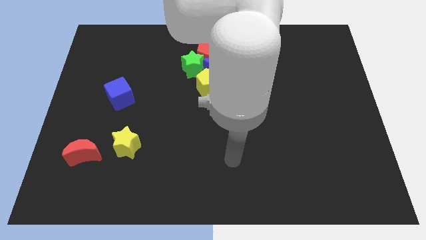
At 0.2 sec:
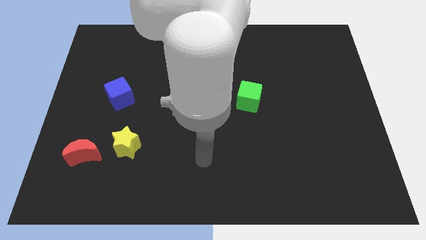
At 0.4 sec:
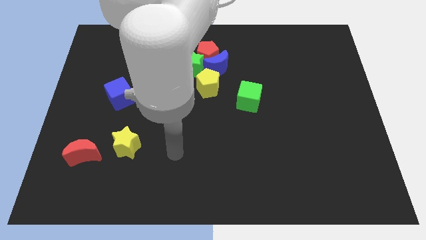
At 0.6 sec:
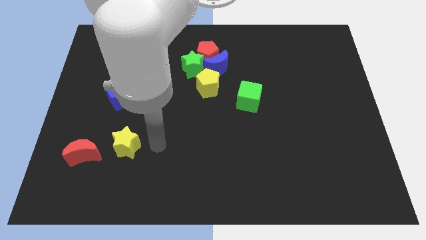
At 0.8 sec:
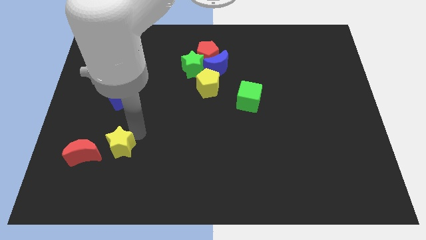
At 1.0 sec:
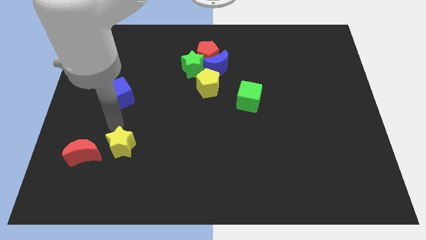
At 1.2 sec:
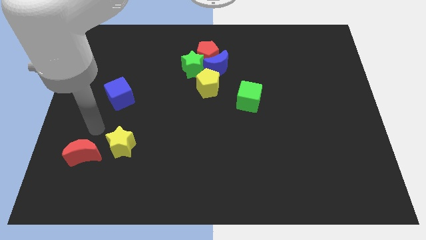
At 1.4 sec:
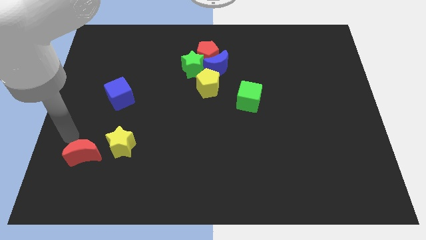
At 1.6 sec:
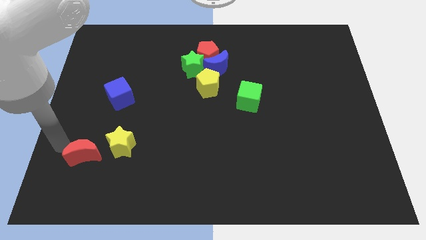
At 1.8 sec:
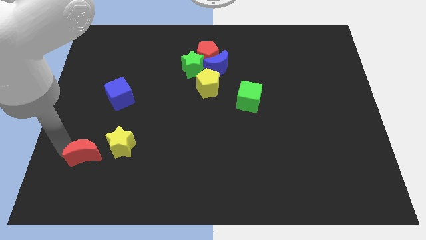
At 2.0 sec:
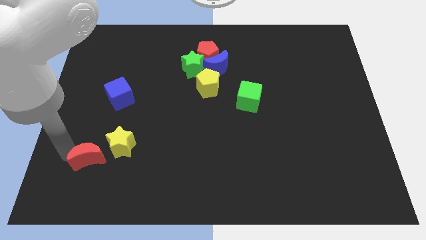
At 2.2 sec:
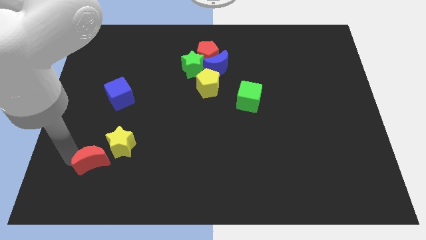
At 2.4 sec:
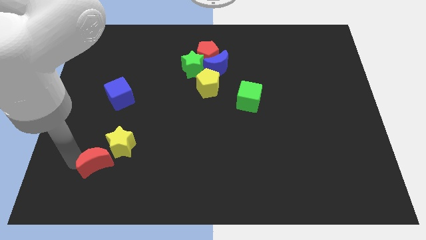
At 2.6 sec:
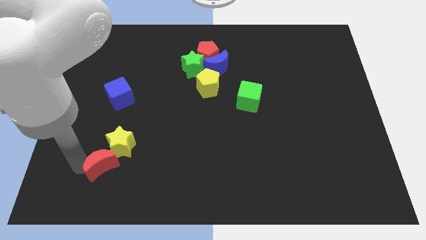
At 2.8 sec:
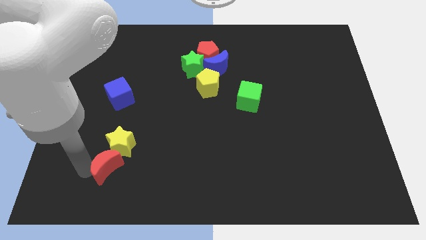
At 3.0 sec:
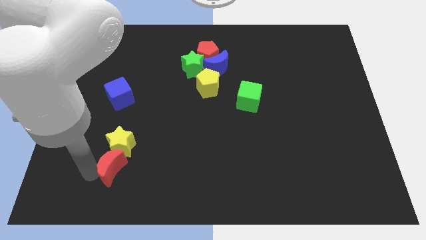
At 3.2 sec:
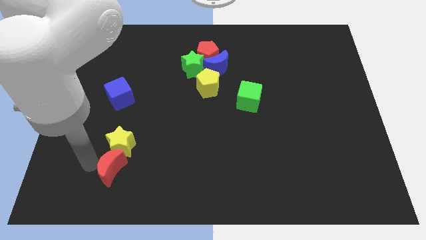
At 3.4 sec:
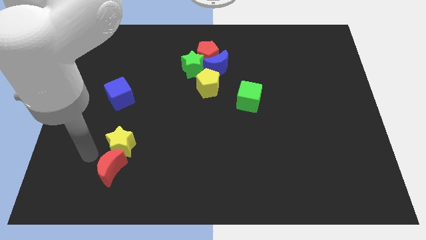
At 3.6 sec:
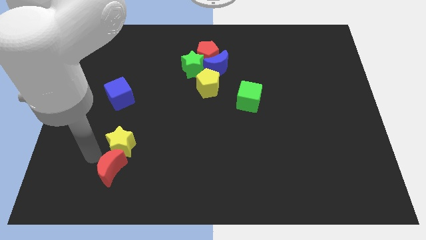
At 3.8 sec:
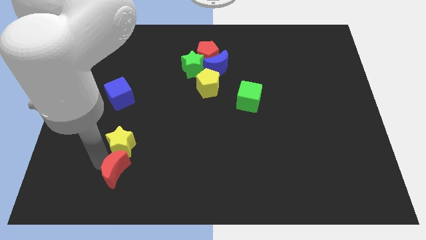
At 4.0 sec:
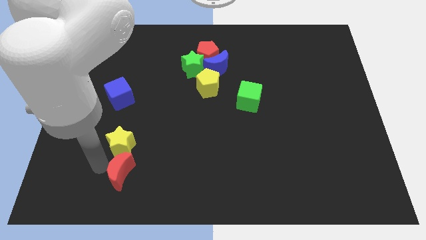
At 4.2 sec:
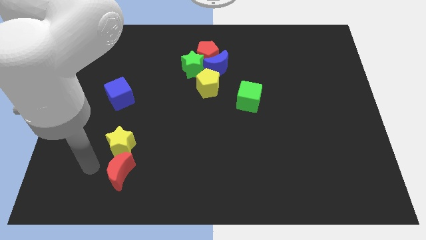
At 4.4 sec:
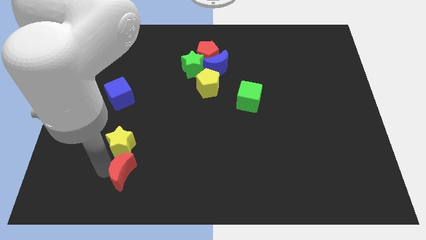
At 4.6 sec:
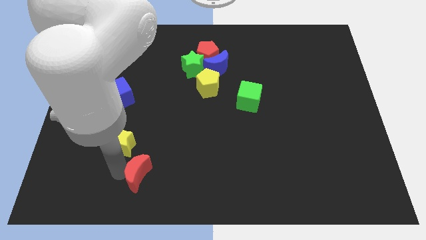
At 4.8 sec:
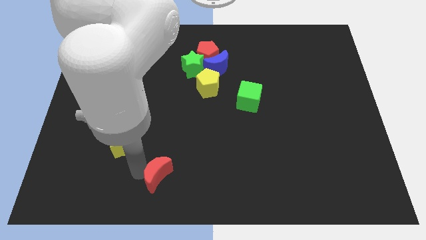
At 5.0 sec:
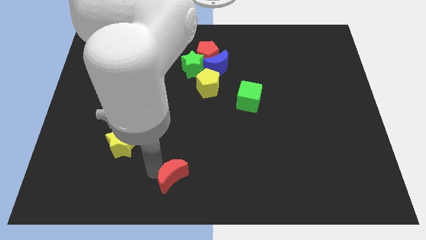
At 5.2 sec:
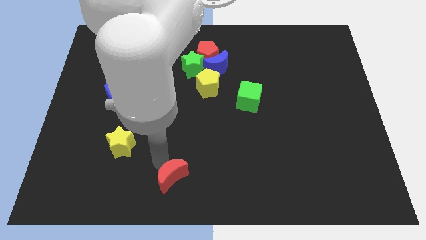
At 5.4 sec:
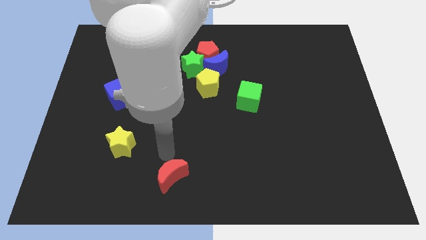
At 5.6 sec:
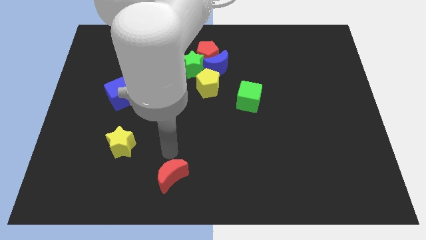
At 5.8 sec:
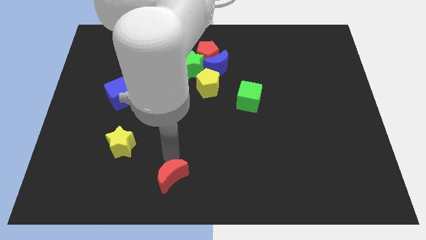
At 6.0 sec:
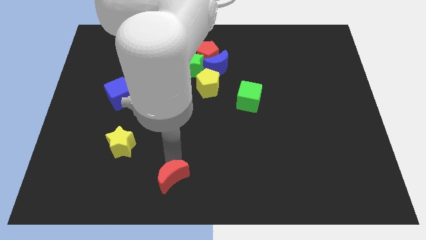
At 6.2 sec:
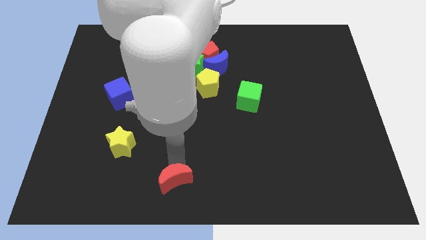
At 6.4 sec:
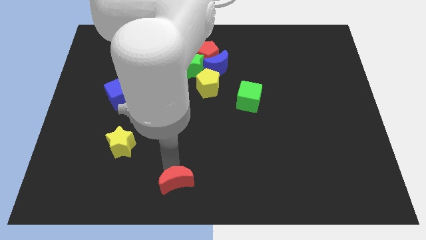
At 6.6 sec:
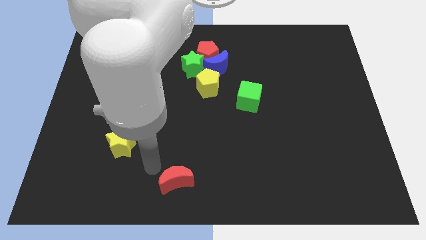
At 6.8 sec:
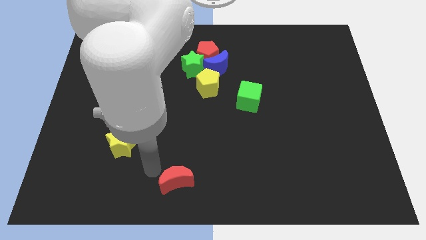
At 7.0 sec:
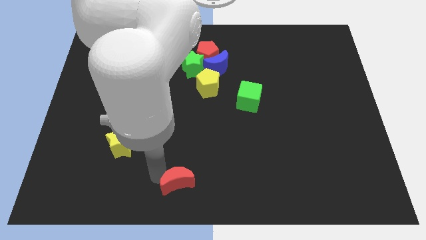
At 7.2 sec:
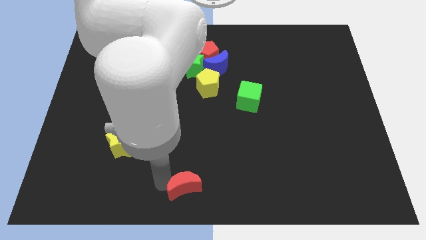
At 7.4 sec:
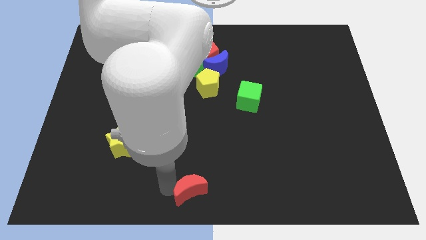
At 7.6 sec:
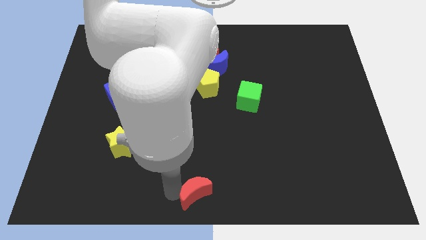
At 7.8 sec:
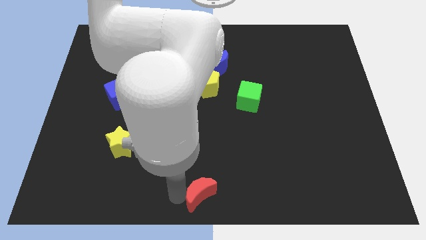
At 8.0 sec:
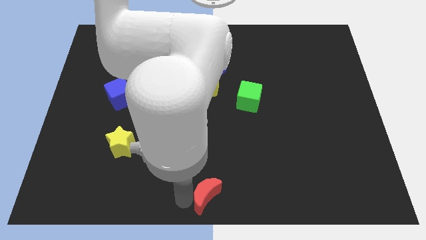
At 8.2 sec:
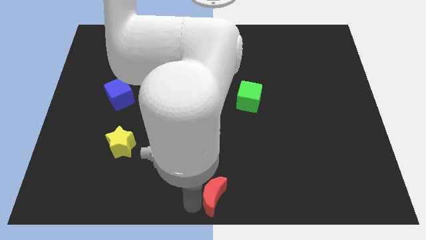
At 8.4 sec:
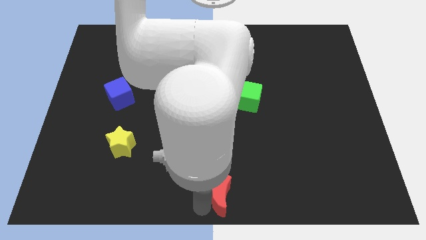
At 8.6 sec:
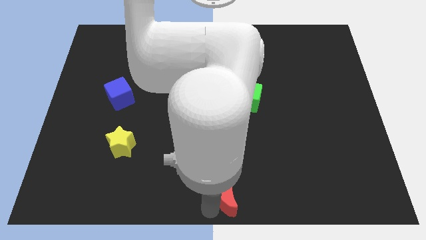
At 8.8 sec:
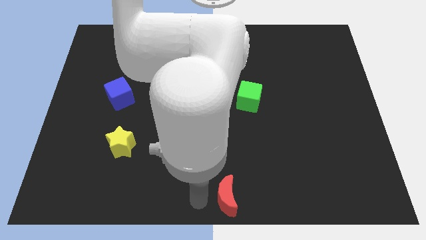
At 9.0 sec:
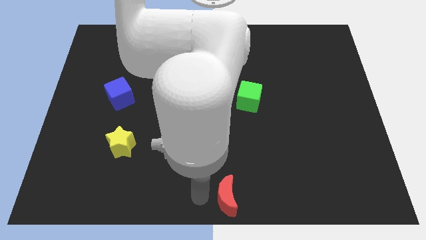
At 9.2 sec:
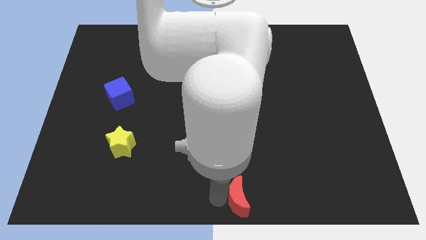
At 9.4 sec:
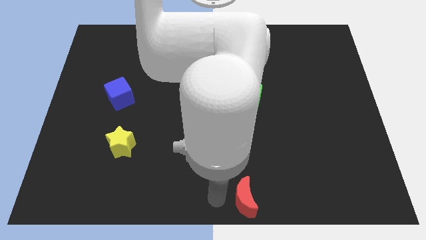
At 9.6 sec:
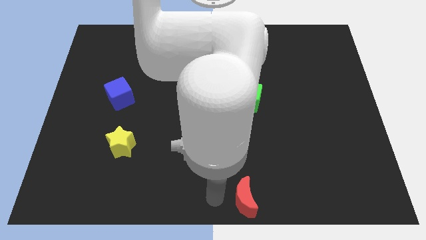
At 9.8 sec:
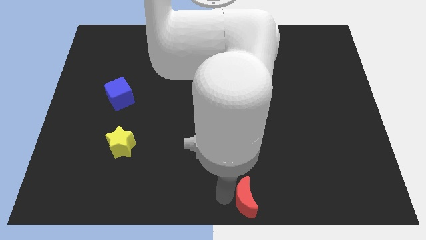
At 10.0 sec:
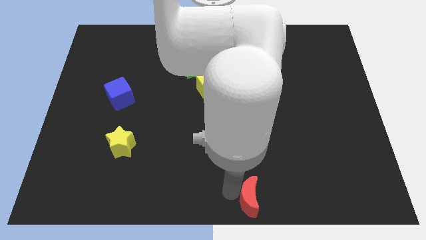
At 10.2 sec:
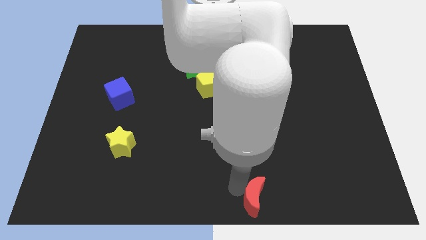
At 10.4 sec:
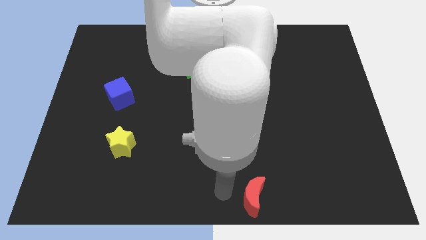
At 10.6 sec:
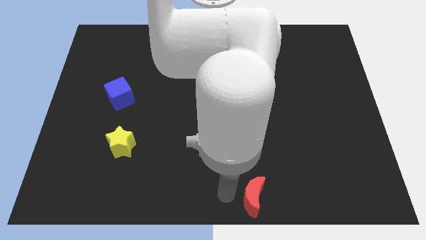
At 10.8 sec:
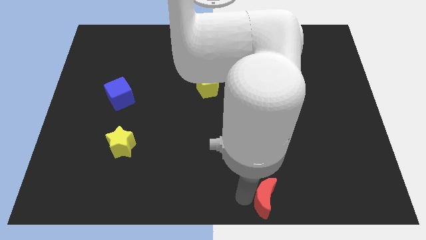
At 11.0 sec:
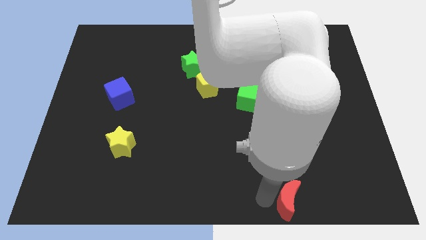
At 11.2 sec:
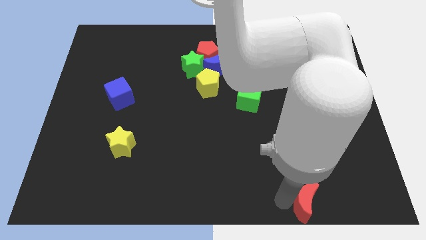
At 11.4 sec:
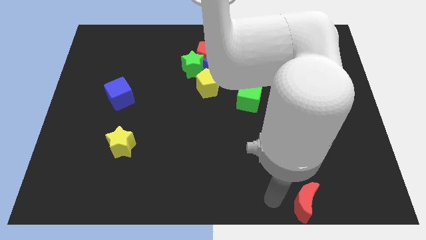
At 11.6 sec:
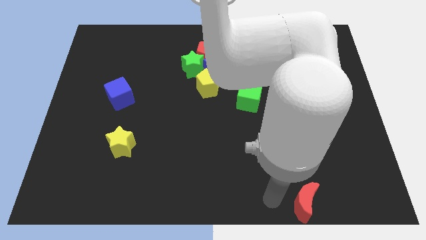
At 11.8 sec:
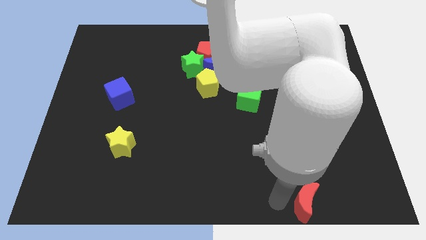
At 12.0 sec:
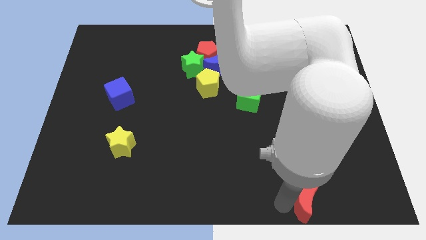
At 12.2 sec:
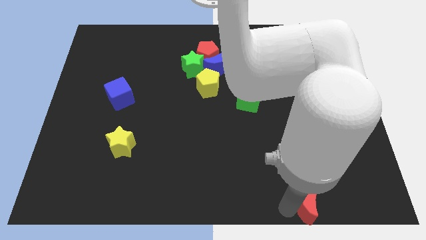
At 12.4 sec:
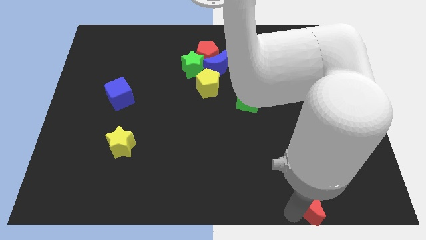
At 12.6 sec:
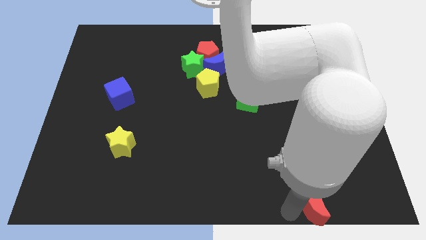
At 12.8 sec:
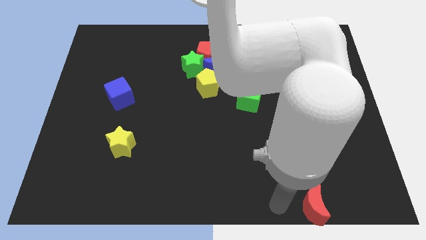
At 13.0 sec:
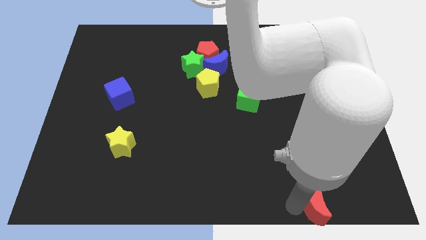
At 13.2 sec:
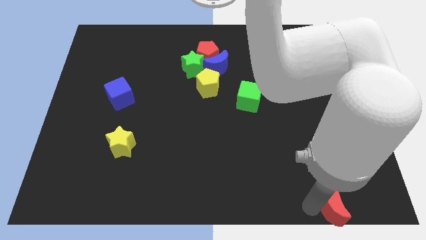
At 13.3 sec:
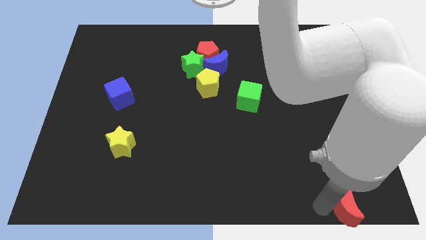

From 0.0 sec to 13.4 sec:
slide the red moon to the lower right corner
